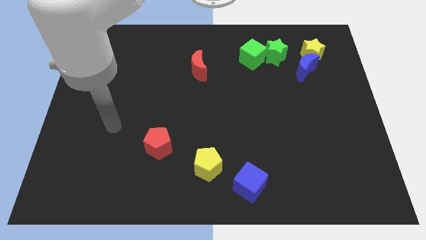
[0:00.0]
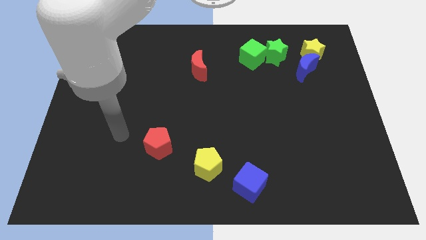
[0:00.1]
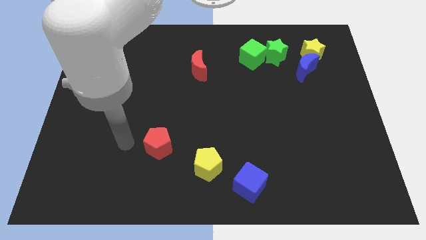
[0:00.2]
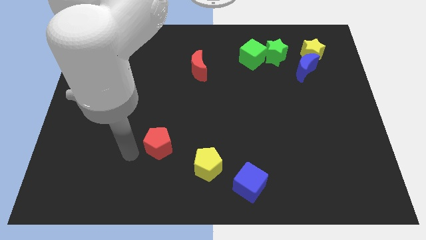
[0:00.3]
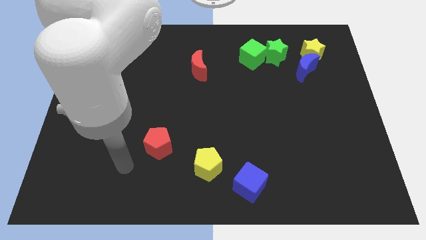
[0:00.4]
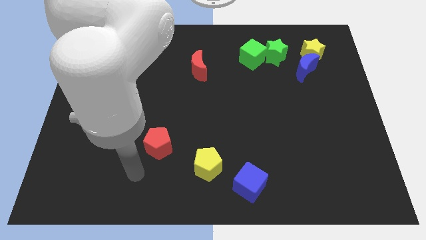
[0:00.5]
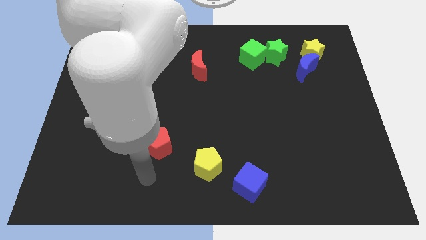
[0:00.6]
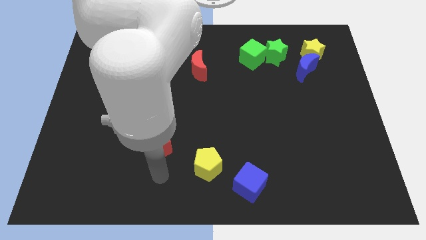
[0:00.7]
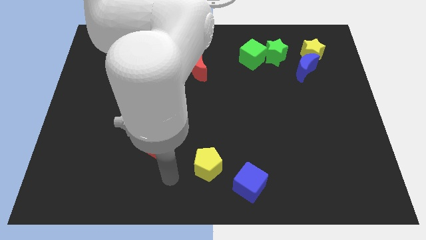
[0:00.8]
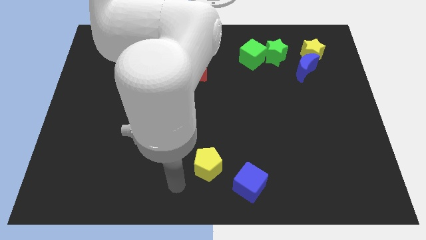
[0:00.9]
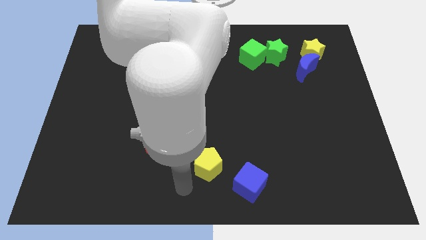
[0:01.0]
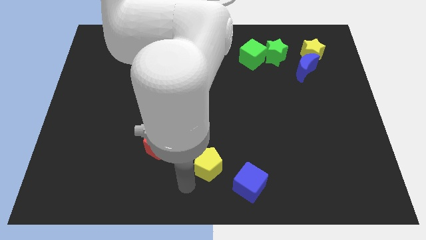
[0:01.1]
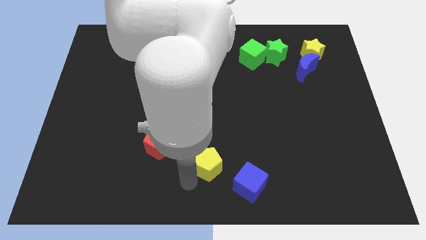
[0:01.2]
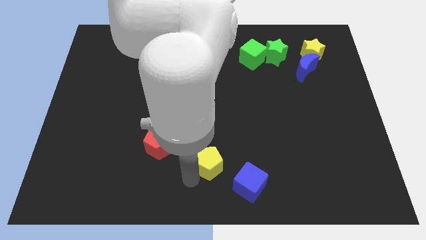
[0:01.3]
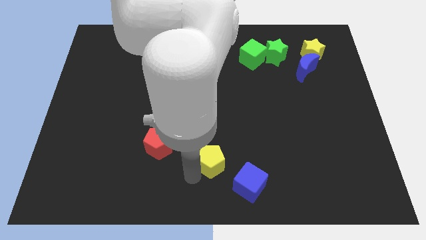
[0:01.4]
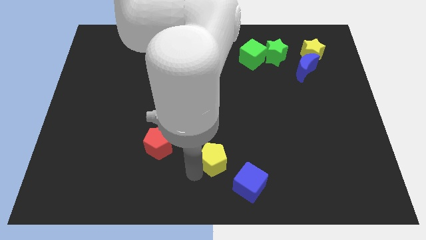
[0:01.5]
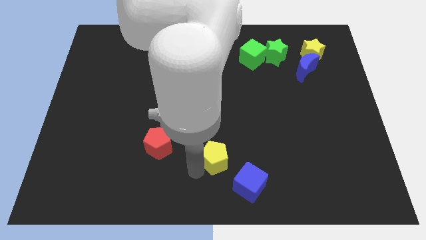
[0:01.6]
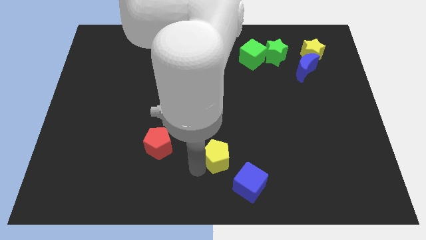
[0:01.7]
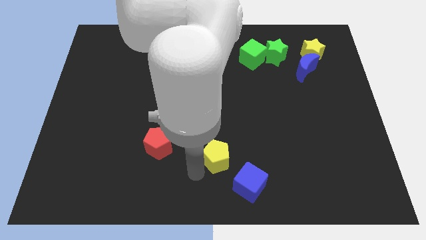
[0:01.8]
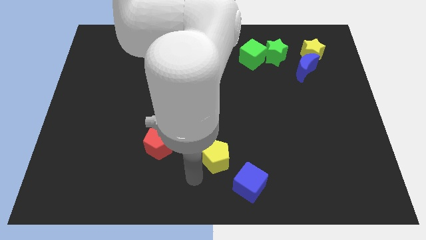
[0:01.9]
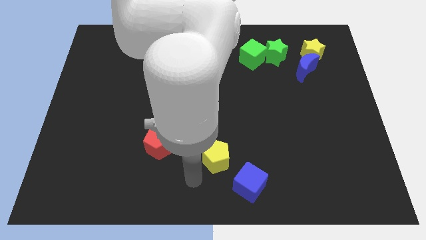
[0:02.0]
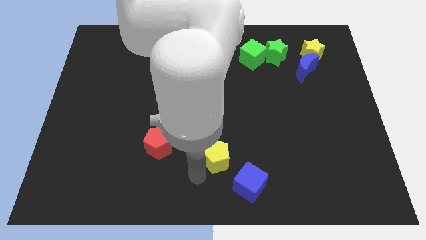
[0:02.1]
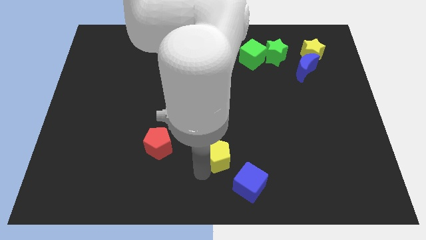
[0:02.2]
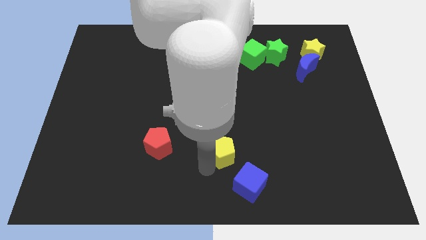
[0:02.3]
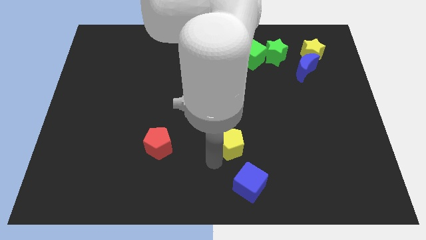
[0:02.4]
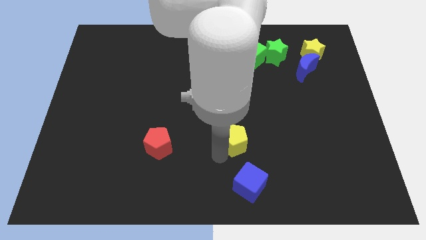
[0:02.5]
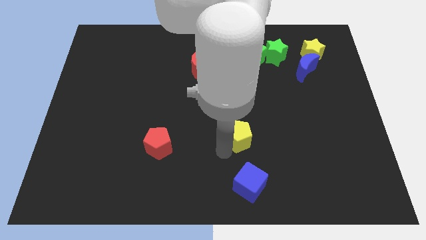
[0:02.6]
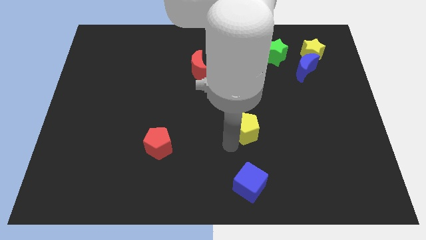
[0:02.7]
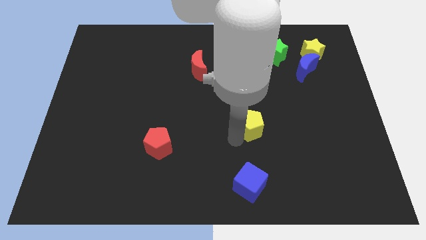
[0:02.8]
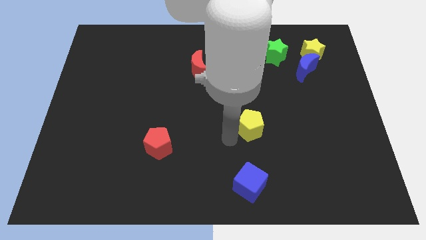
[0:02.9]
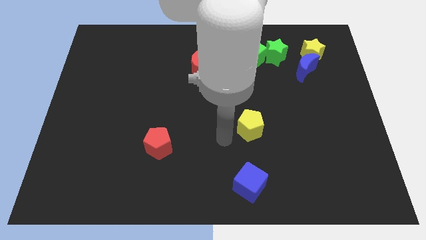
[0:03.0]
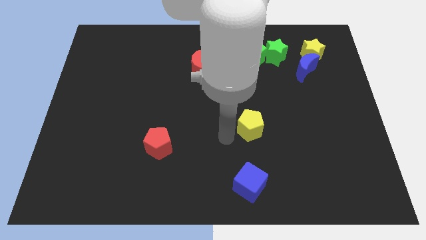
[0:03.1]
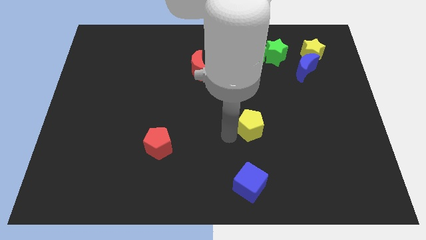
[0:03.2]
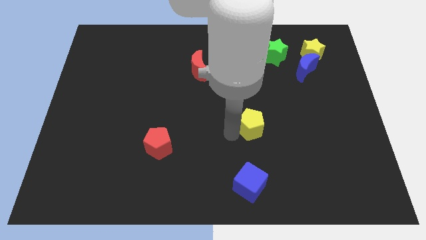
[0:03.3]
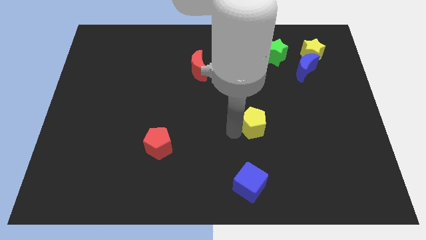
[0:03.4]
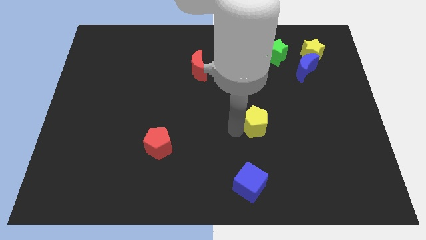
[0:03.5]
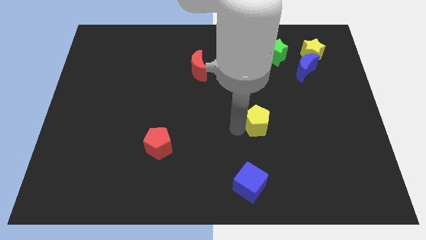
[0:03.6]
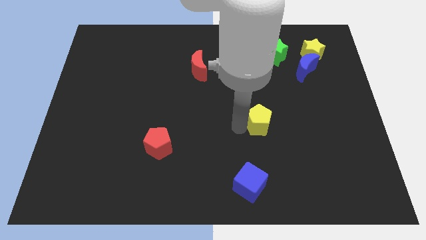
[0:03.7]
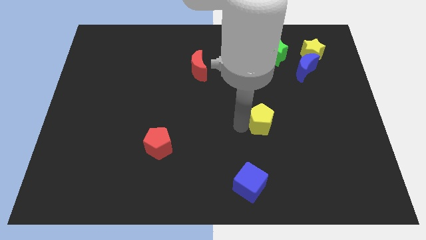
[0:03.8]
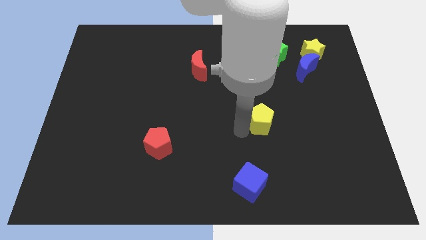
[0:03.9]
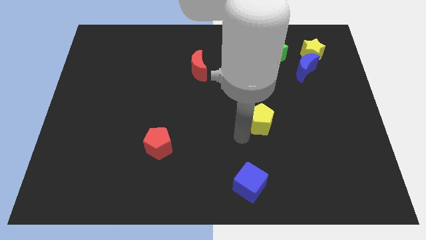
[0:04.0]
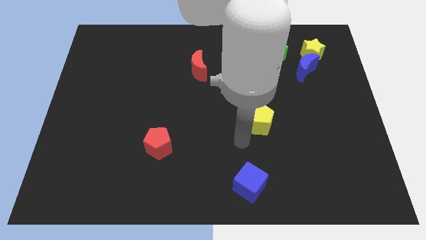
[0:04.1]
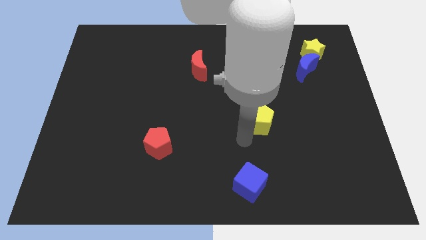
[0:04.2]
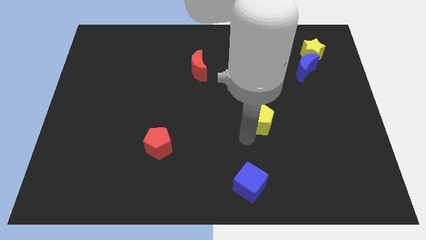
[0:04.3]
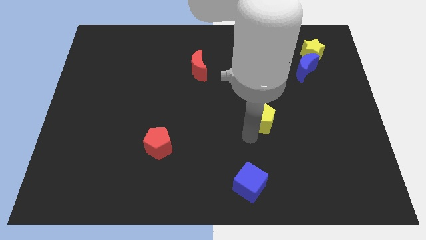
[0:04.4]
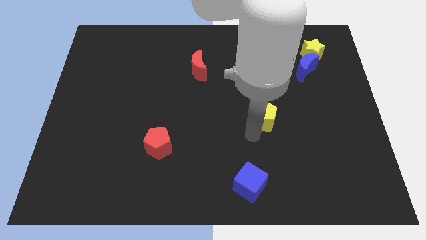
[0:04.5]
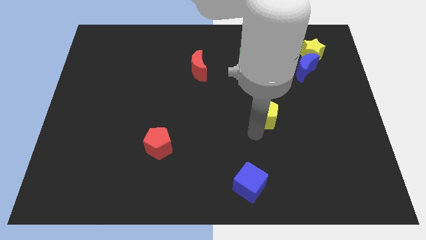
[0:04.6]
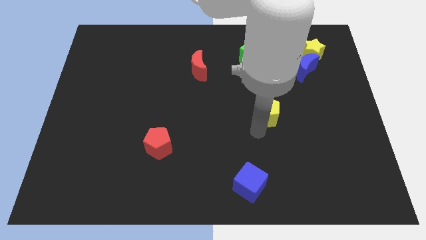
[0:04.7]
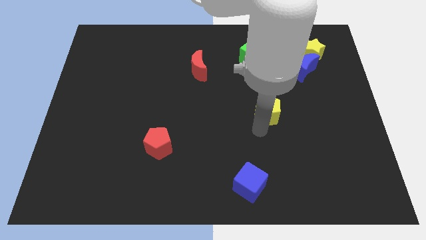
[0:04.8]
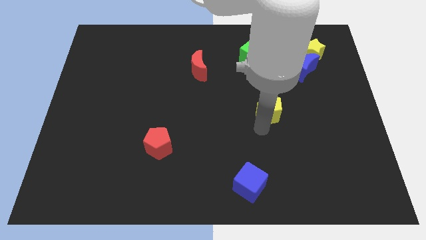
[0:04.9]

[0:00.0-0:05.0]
push the yellow pentagon upwards and to the right

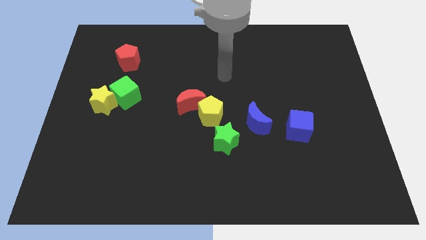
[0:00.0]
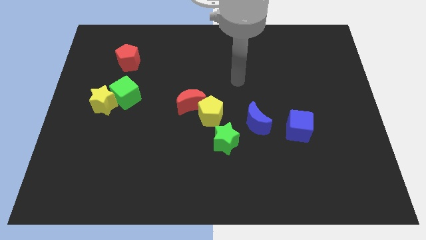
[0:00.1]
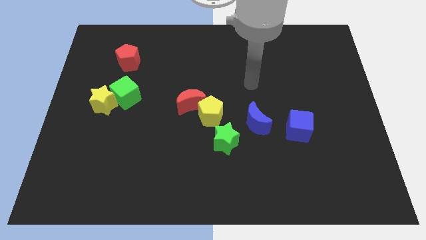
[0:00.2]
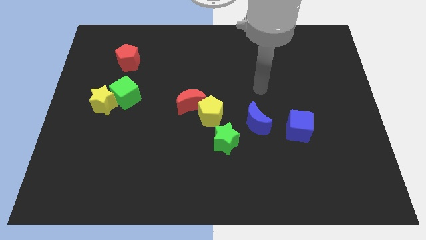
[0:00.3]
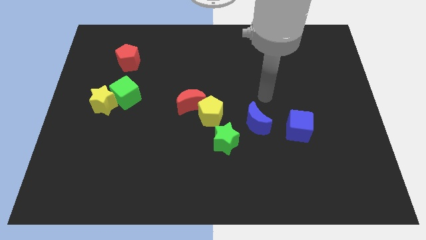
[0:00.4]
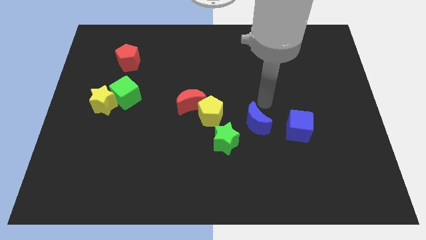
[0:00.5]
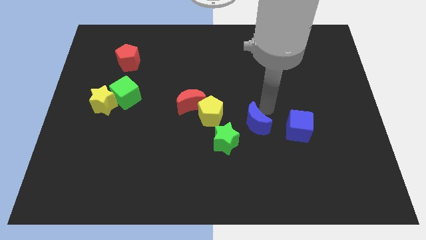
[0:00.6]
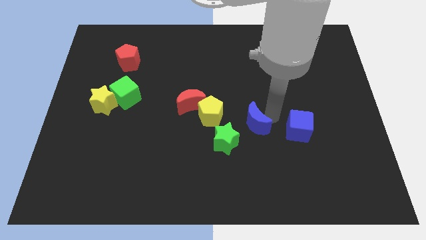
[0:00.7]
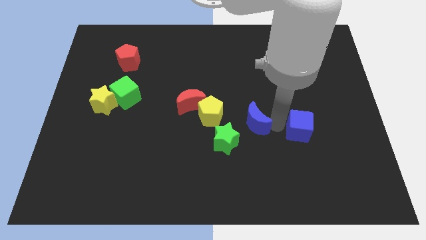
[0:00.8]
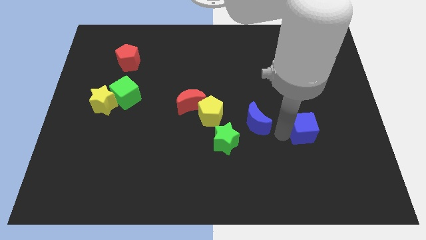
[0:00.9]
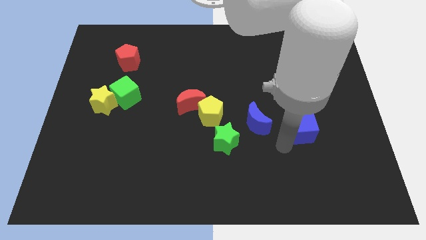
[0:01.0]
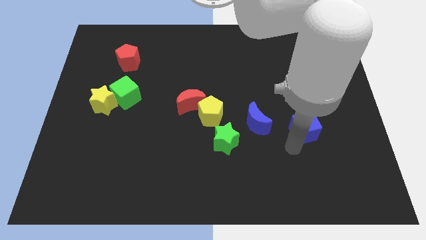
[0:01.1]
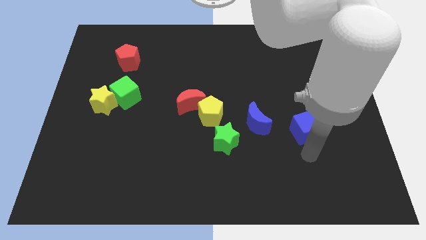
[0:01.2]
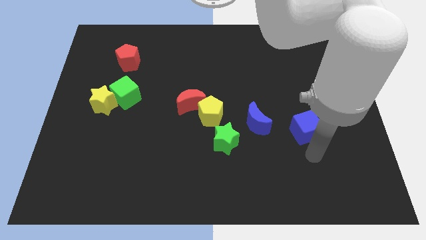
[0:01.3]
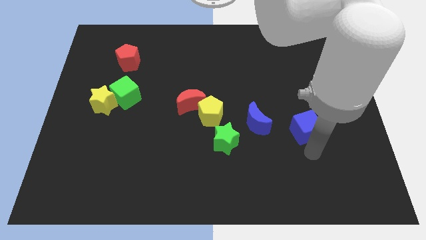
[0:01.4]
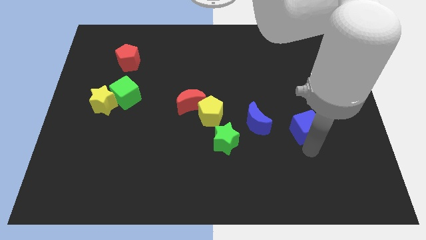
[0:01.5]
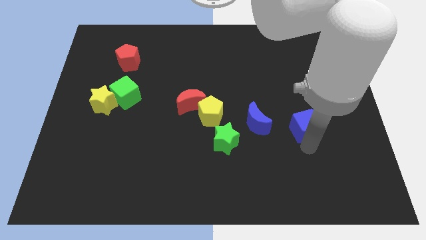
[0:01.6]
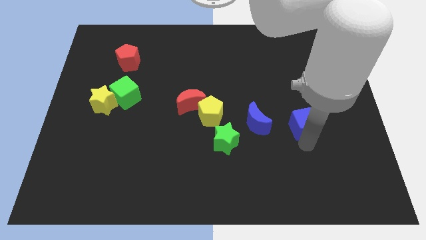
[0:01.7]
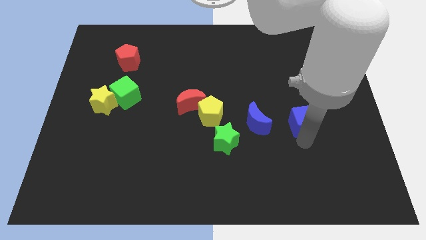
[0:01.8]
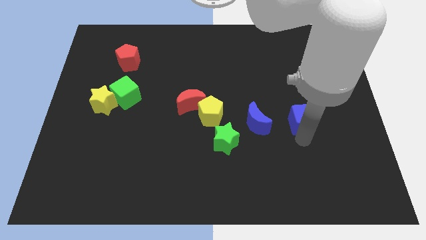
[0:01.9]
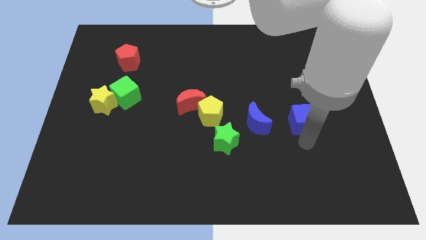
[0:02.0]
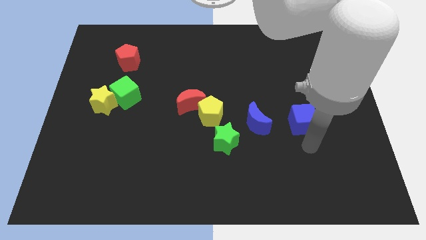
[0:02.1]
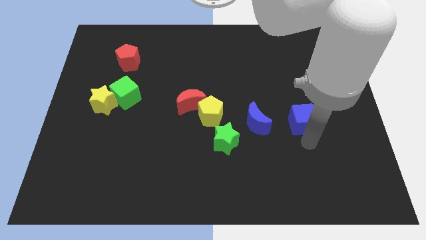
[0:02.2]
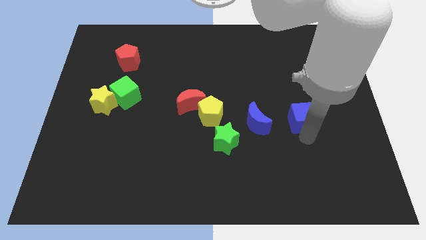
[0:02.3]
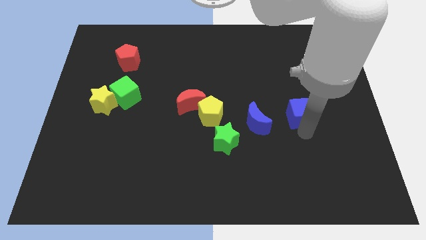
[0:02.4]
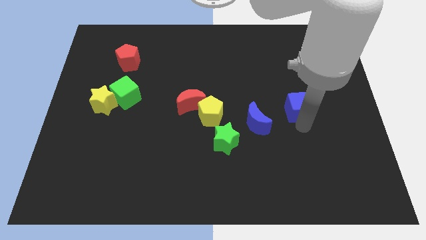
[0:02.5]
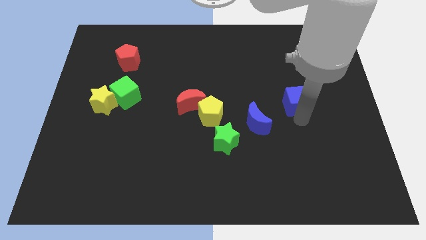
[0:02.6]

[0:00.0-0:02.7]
move the blue cube slightly up
